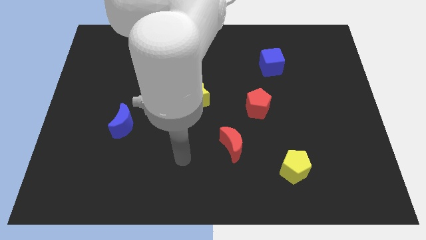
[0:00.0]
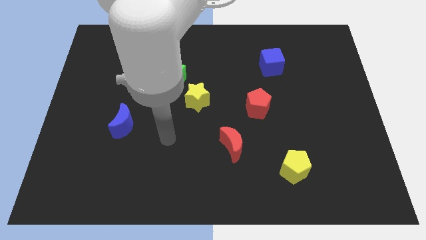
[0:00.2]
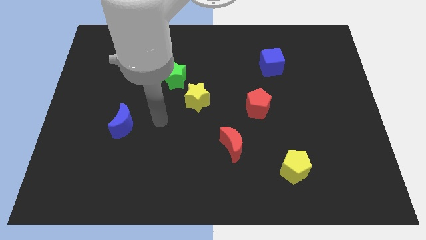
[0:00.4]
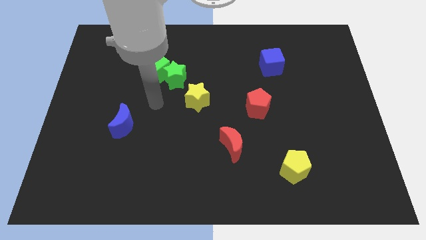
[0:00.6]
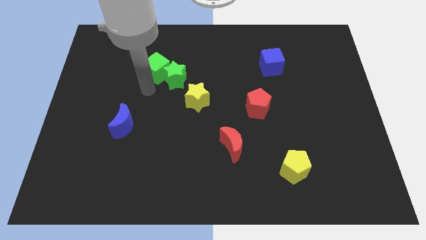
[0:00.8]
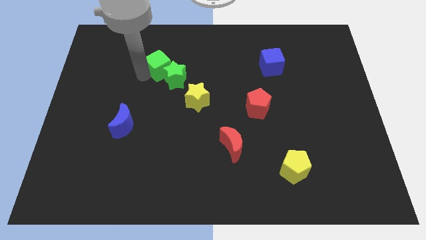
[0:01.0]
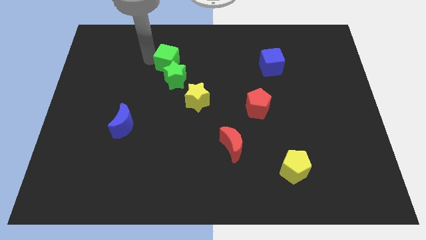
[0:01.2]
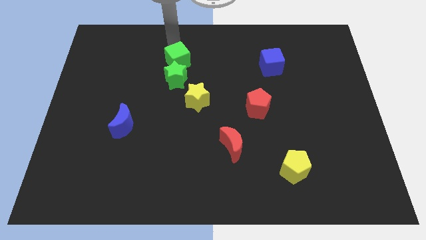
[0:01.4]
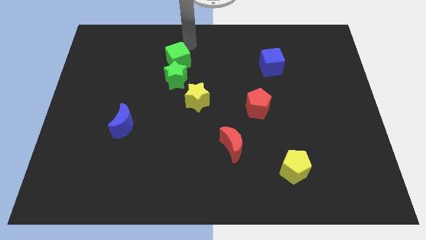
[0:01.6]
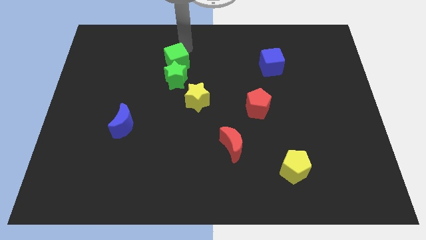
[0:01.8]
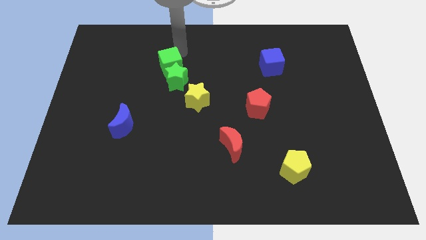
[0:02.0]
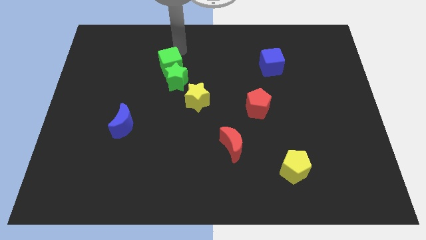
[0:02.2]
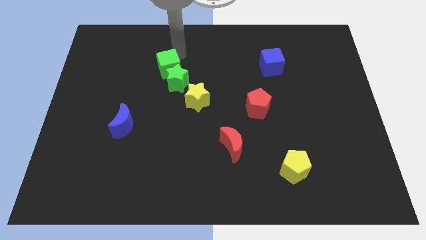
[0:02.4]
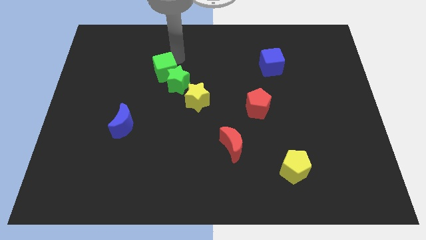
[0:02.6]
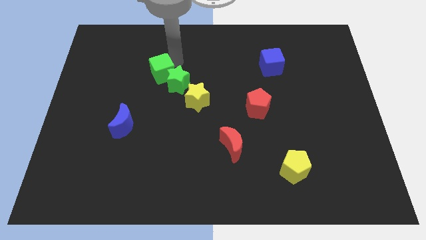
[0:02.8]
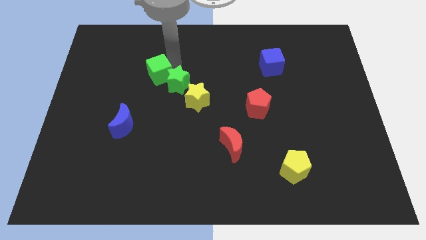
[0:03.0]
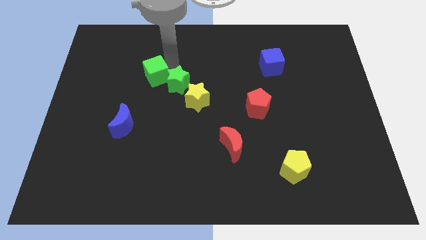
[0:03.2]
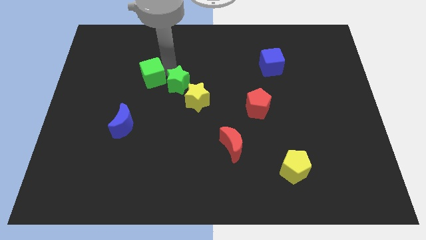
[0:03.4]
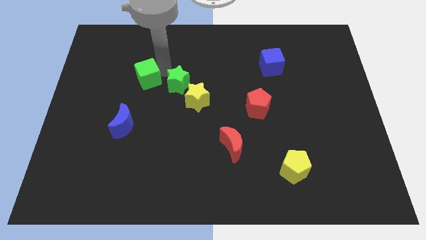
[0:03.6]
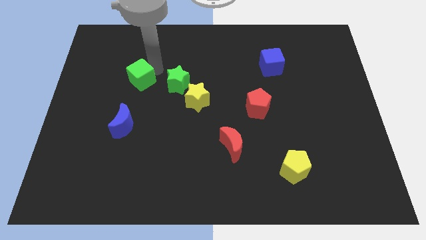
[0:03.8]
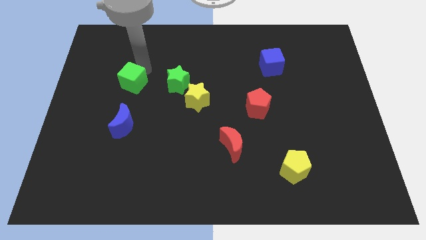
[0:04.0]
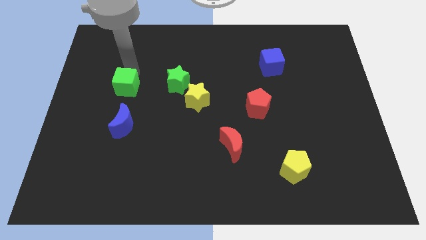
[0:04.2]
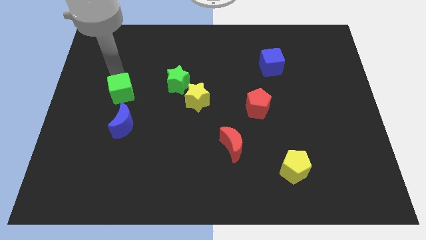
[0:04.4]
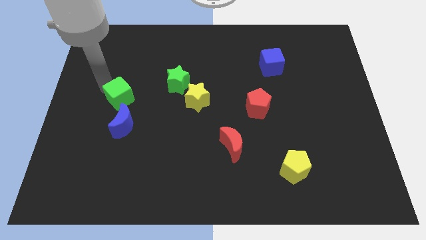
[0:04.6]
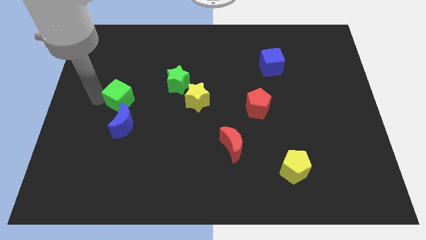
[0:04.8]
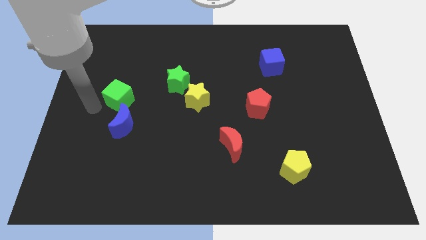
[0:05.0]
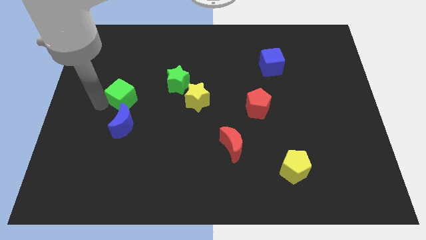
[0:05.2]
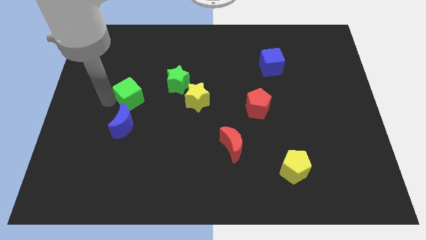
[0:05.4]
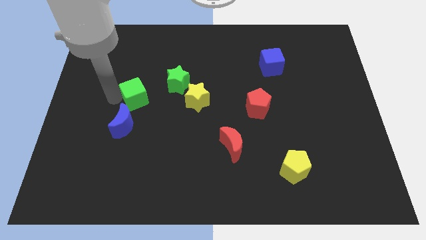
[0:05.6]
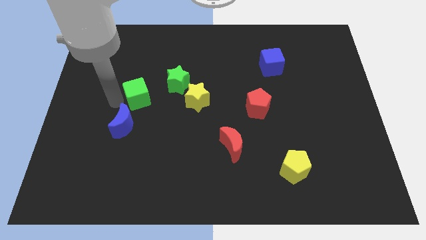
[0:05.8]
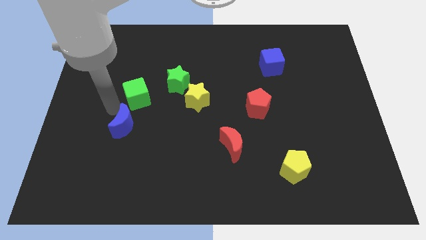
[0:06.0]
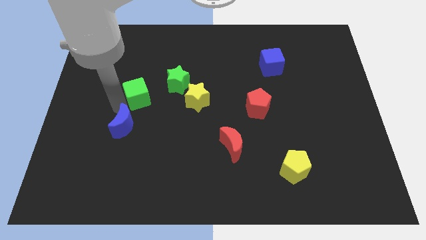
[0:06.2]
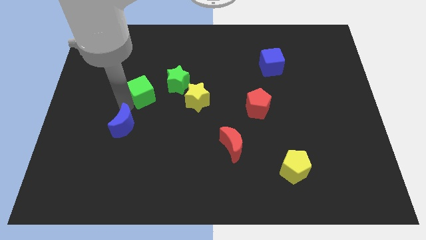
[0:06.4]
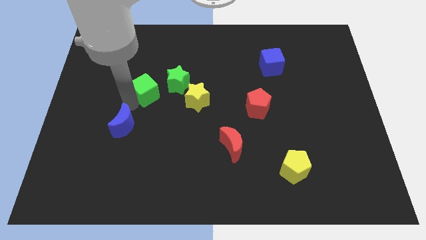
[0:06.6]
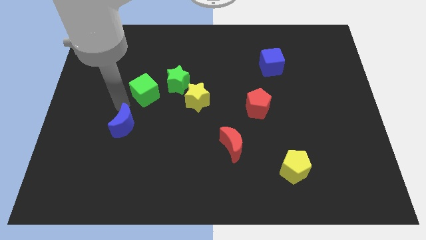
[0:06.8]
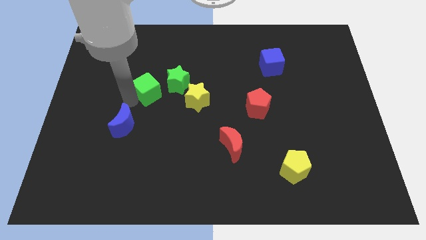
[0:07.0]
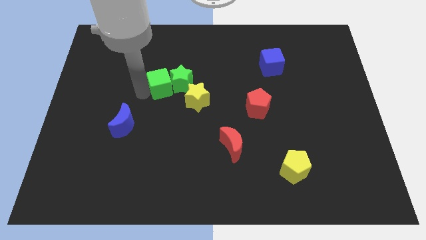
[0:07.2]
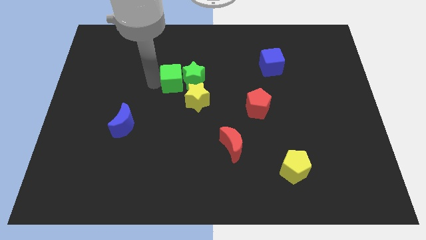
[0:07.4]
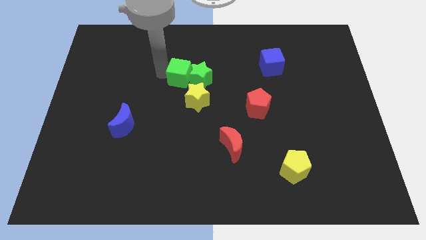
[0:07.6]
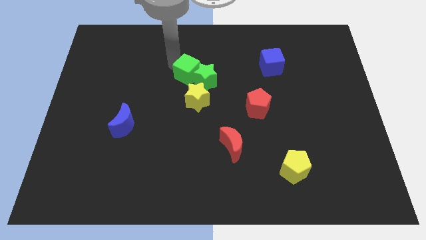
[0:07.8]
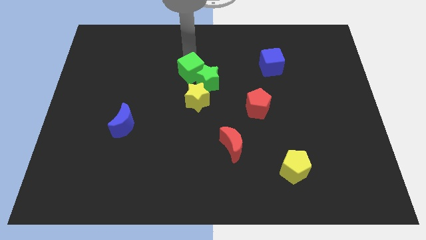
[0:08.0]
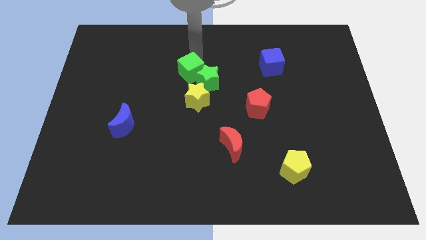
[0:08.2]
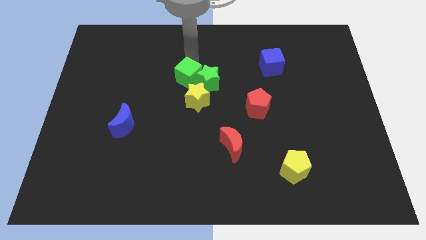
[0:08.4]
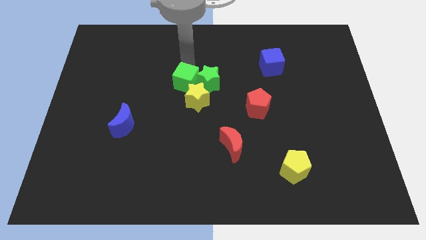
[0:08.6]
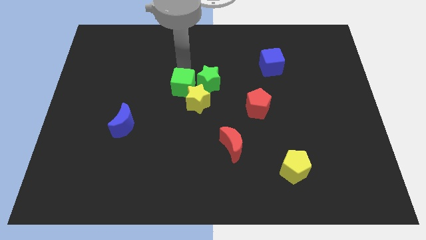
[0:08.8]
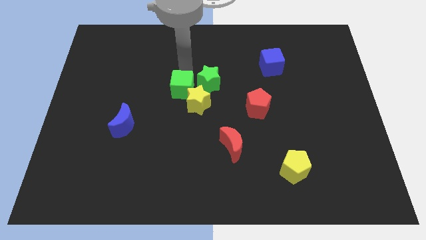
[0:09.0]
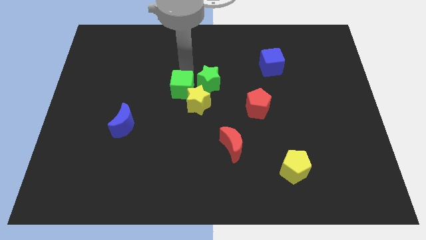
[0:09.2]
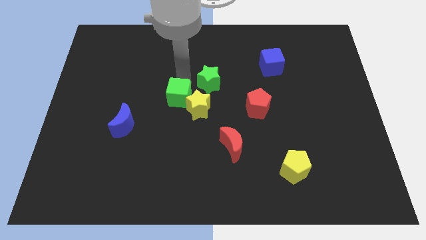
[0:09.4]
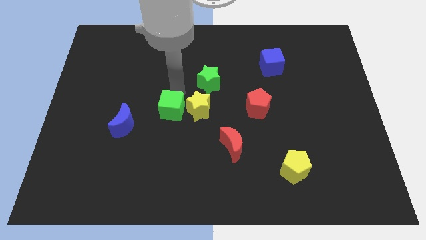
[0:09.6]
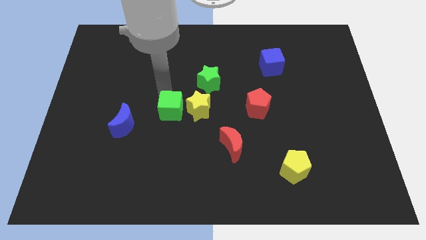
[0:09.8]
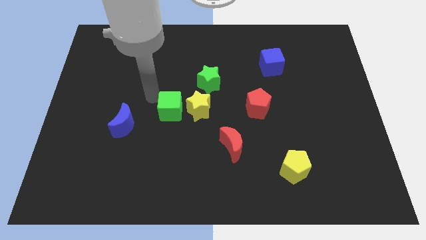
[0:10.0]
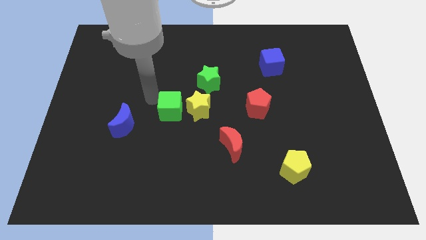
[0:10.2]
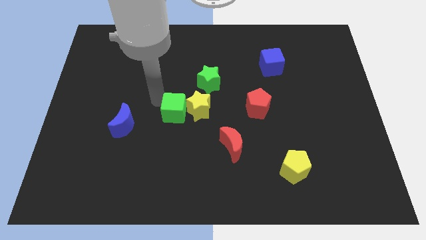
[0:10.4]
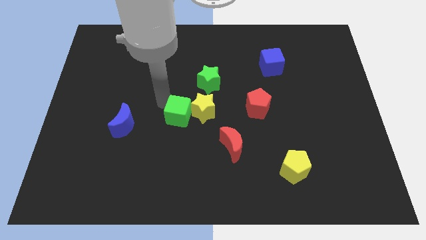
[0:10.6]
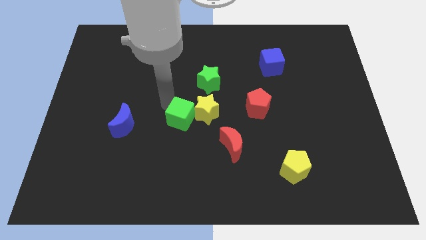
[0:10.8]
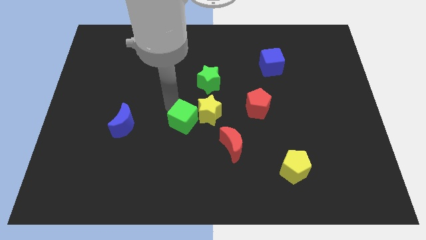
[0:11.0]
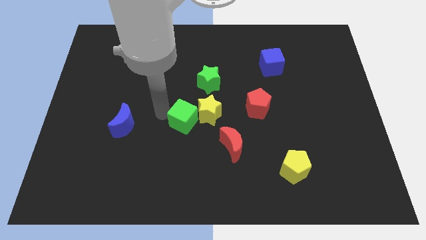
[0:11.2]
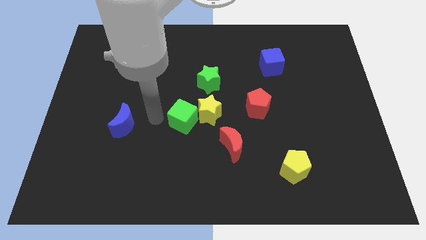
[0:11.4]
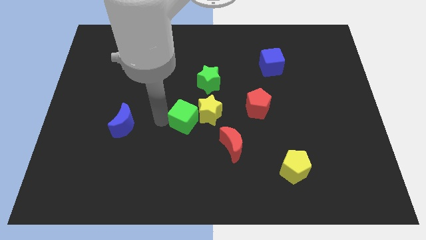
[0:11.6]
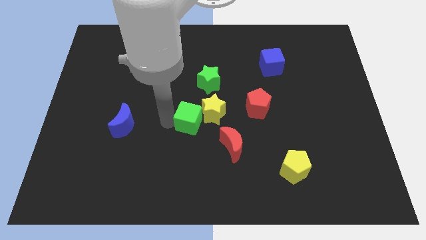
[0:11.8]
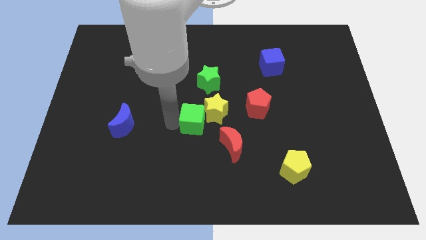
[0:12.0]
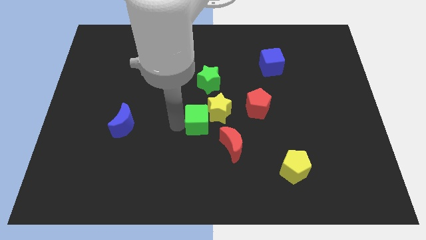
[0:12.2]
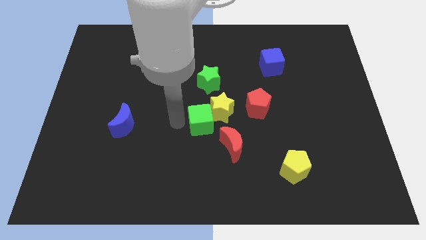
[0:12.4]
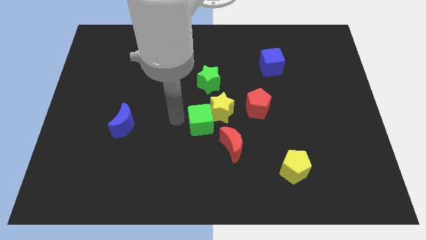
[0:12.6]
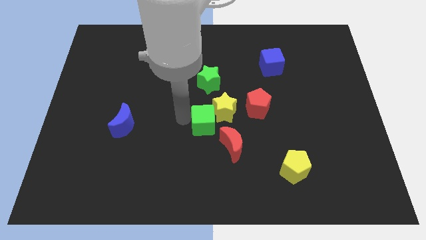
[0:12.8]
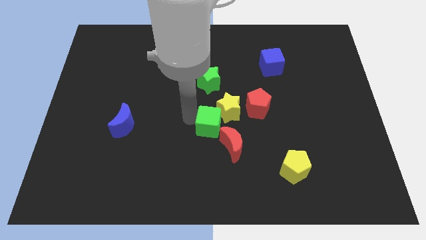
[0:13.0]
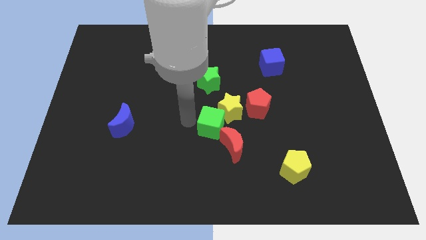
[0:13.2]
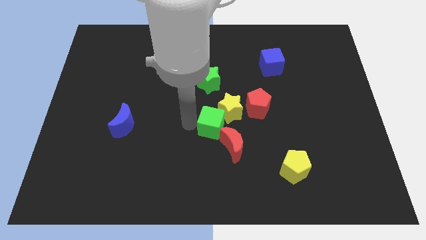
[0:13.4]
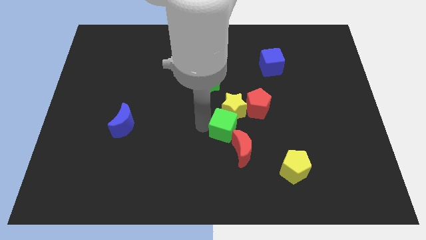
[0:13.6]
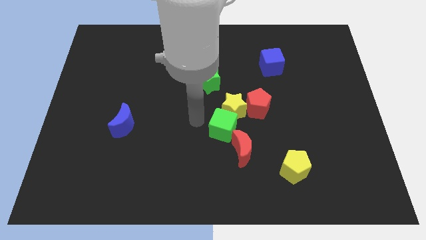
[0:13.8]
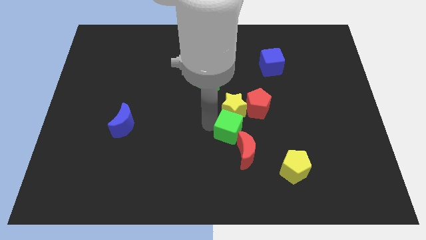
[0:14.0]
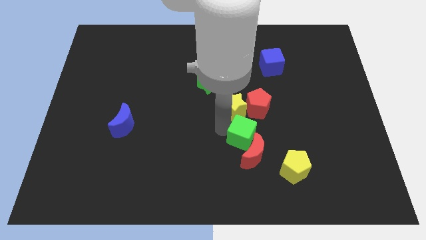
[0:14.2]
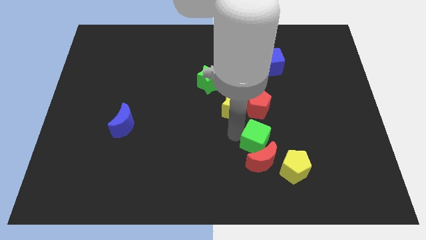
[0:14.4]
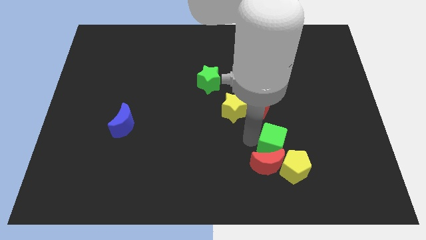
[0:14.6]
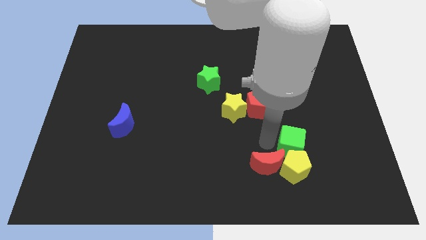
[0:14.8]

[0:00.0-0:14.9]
put the green cube to the top right side of the yellow pentagon
